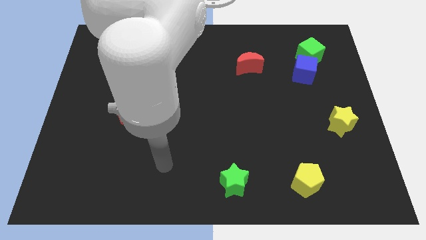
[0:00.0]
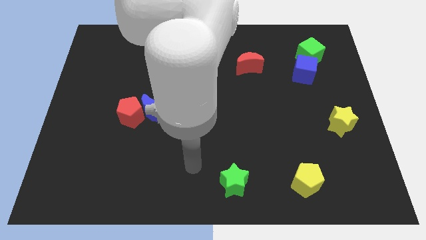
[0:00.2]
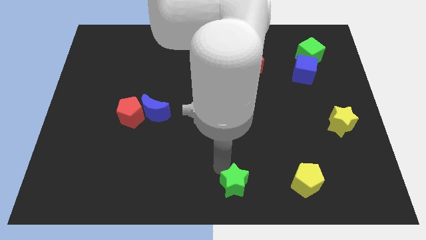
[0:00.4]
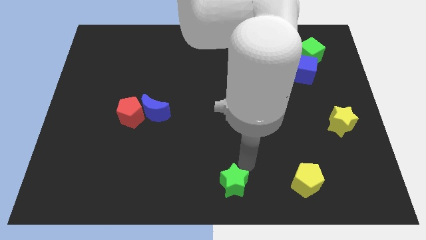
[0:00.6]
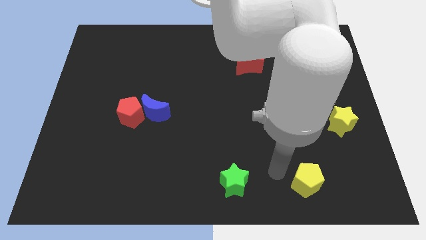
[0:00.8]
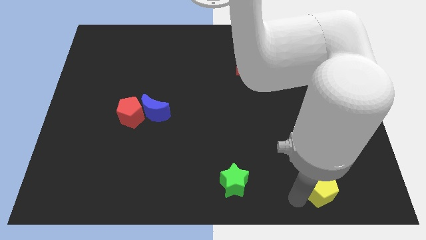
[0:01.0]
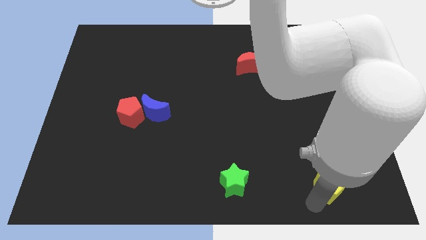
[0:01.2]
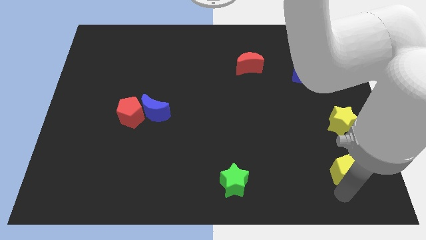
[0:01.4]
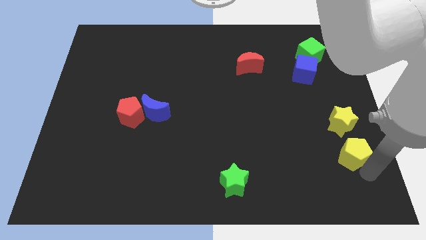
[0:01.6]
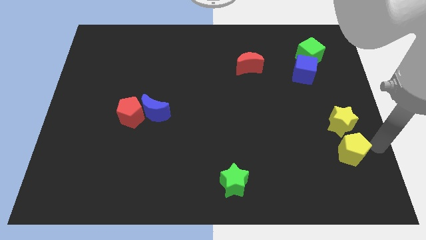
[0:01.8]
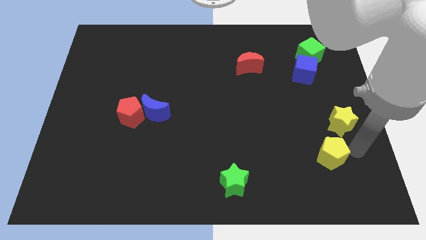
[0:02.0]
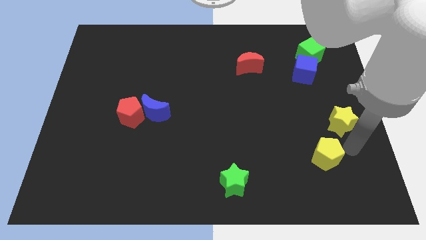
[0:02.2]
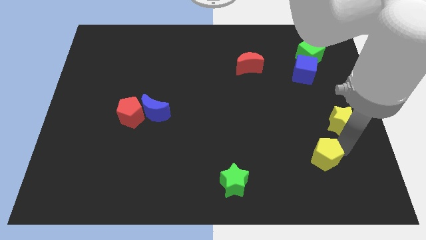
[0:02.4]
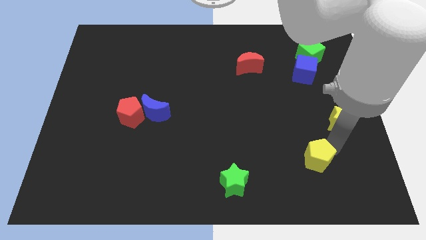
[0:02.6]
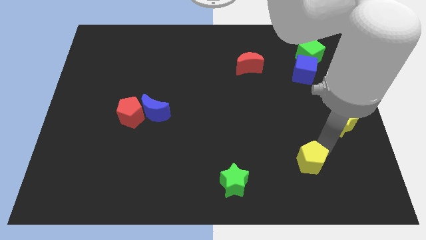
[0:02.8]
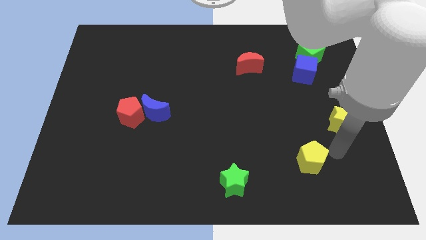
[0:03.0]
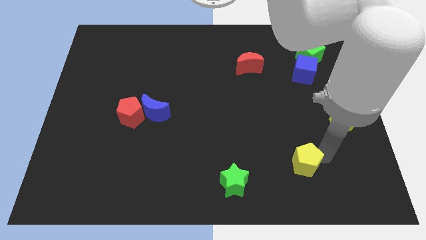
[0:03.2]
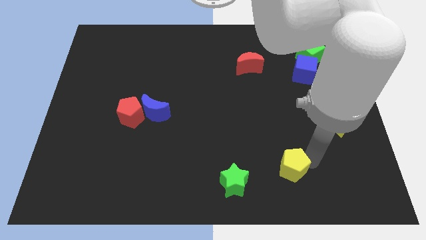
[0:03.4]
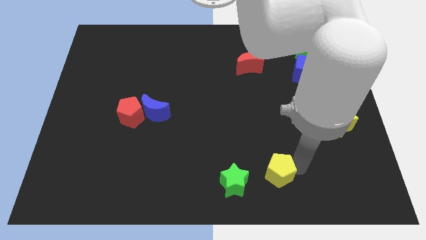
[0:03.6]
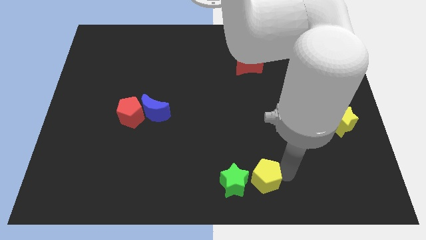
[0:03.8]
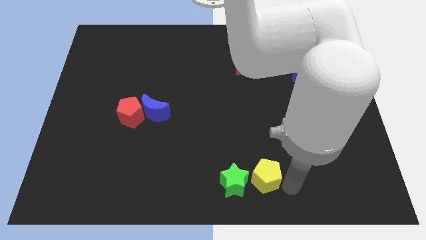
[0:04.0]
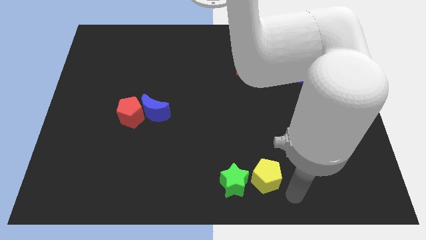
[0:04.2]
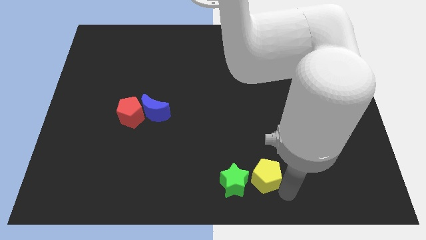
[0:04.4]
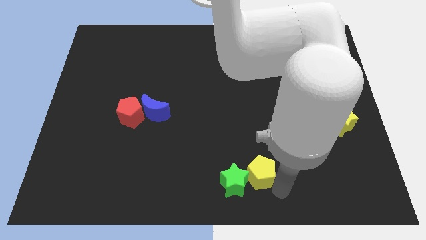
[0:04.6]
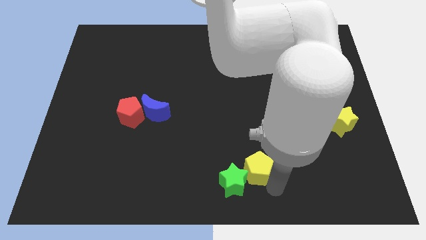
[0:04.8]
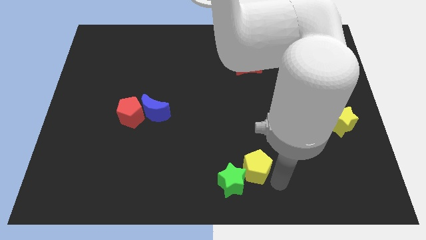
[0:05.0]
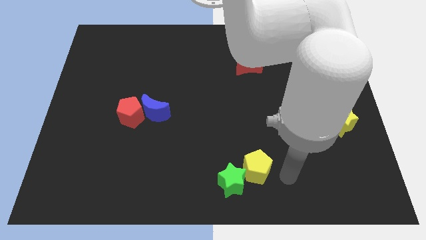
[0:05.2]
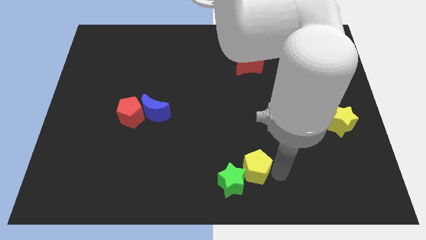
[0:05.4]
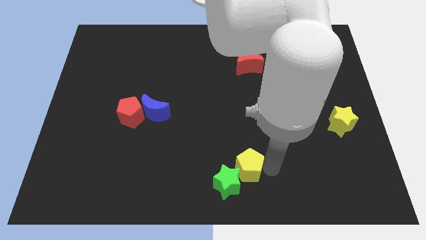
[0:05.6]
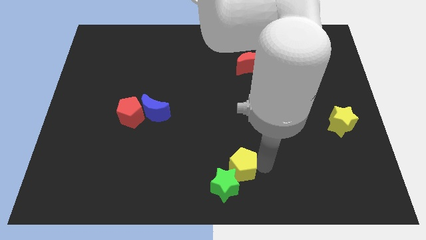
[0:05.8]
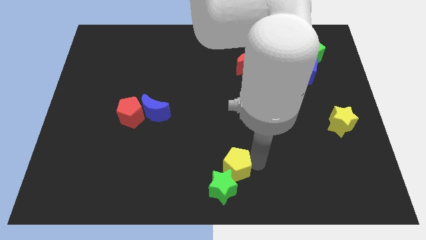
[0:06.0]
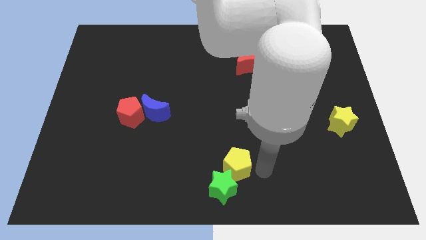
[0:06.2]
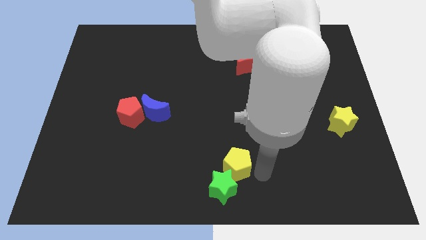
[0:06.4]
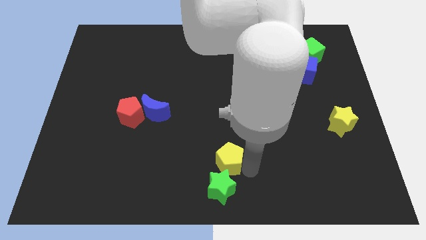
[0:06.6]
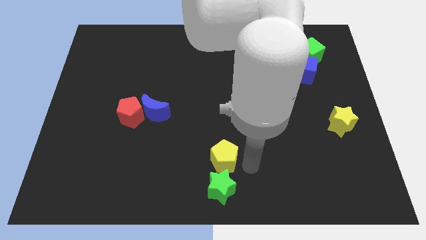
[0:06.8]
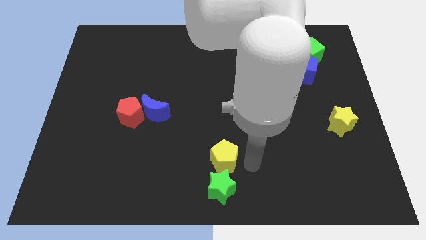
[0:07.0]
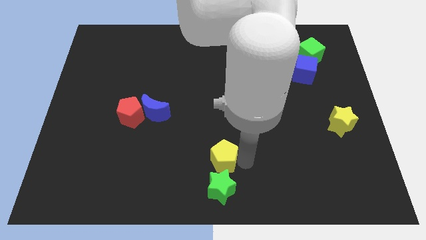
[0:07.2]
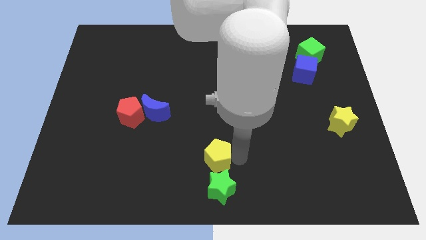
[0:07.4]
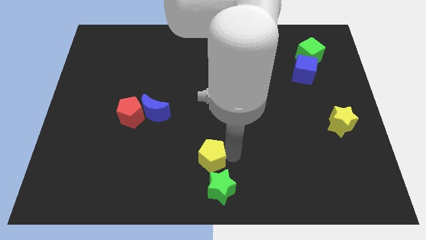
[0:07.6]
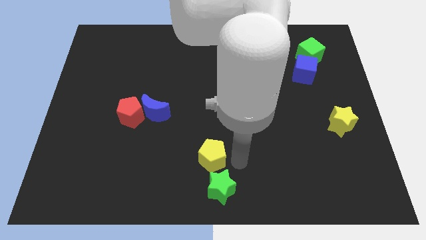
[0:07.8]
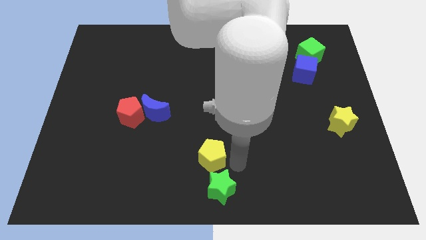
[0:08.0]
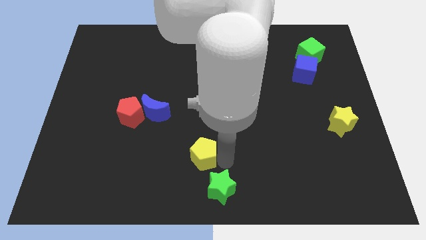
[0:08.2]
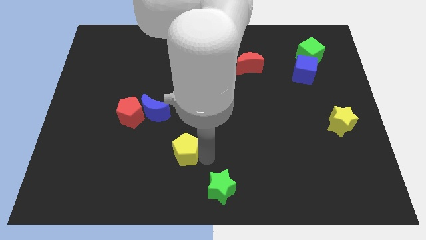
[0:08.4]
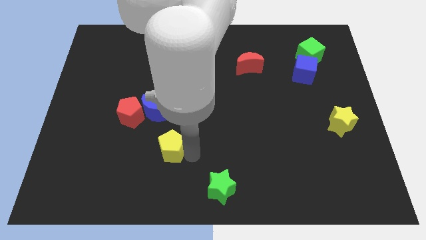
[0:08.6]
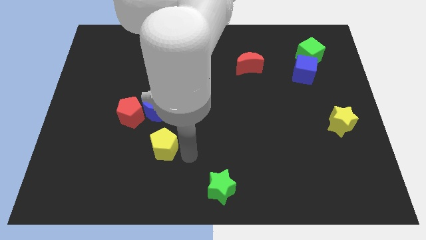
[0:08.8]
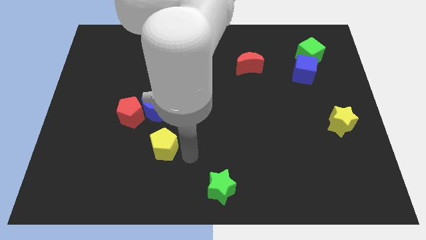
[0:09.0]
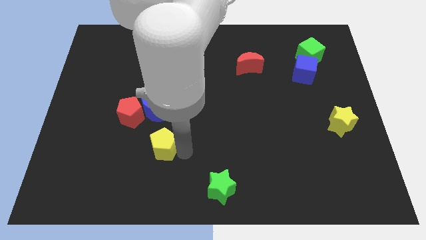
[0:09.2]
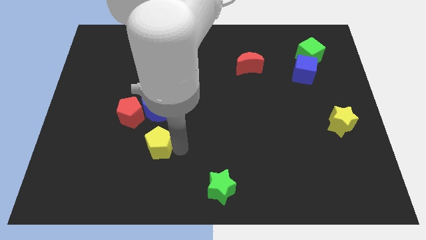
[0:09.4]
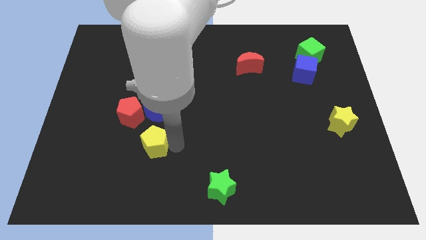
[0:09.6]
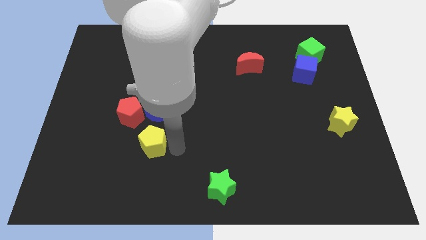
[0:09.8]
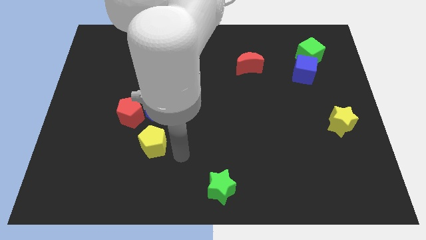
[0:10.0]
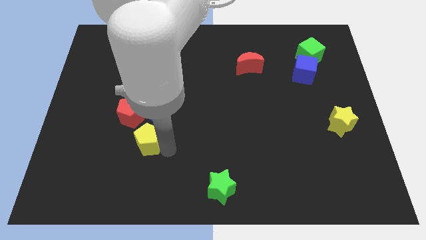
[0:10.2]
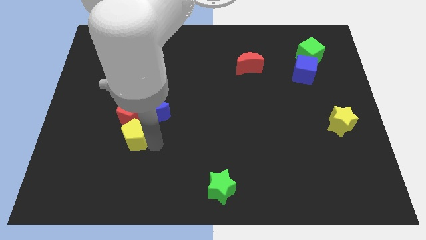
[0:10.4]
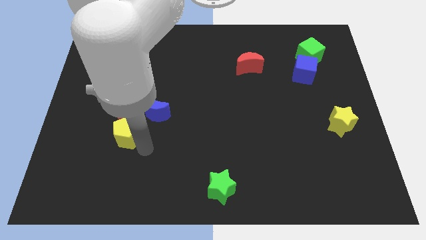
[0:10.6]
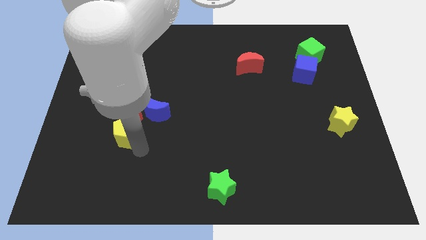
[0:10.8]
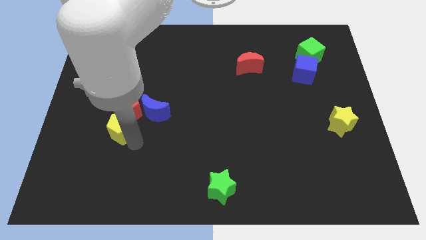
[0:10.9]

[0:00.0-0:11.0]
slide the yellow pentagon to the left side of the blue moon

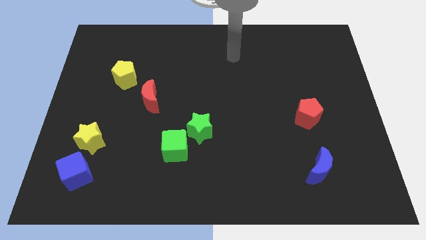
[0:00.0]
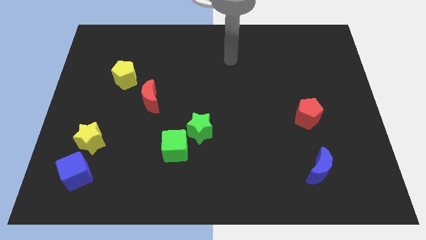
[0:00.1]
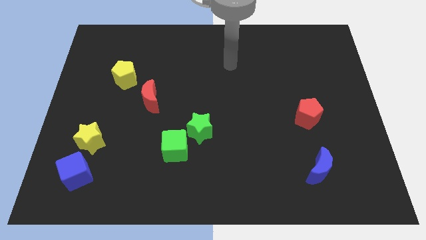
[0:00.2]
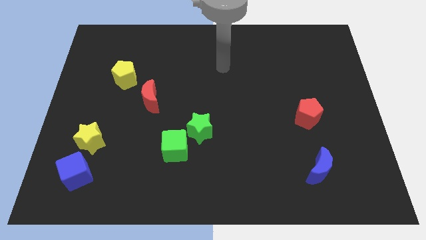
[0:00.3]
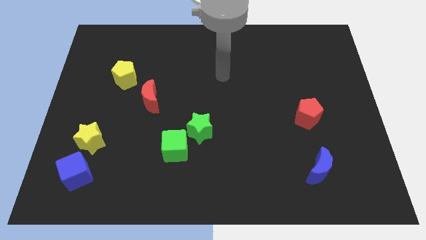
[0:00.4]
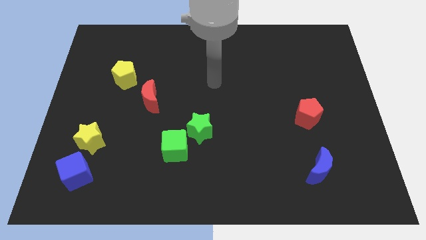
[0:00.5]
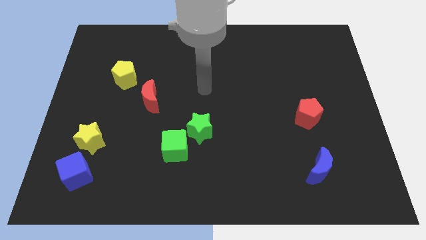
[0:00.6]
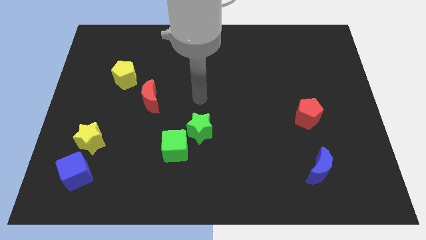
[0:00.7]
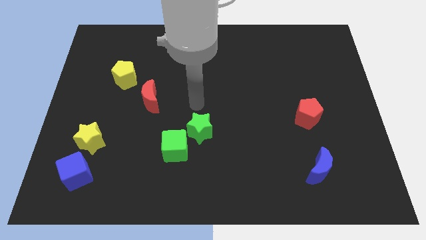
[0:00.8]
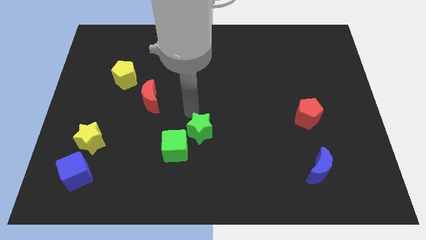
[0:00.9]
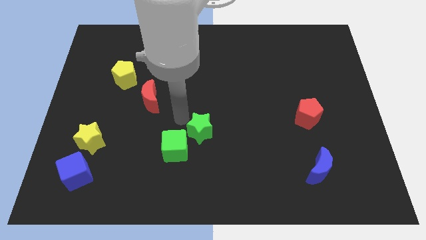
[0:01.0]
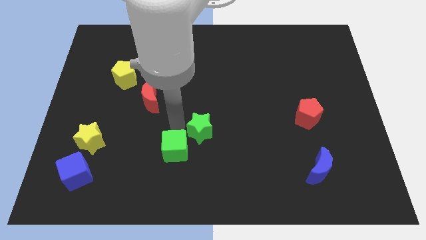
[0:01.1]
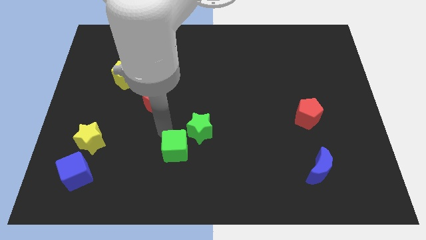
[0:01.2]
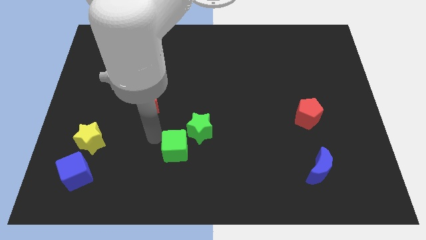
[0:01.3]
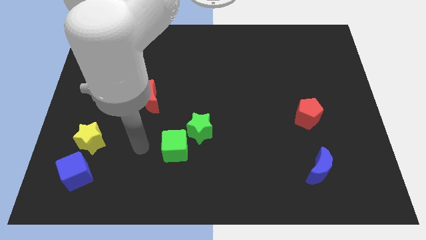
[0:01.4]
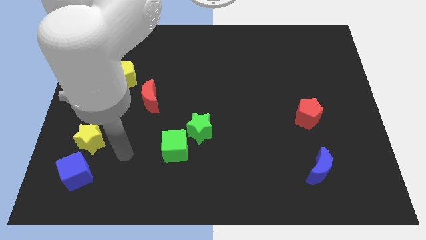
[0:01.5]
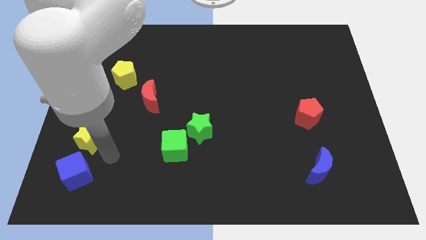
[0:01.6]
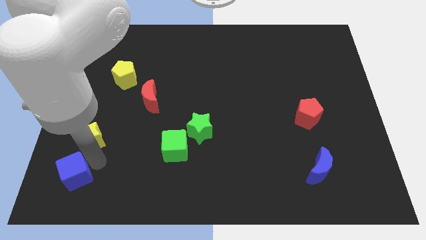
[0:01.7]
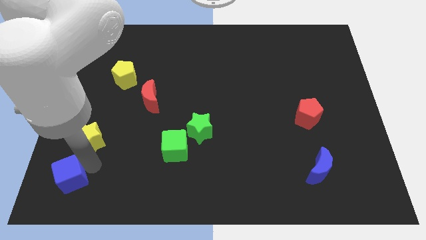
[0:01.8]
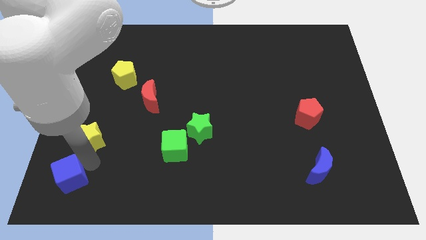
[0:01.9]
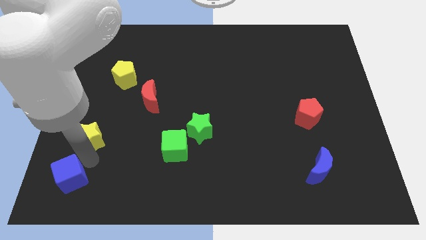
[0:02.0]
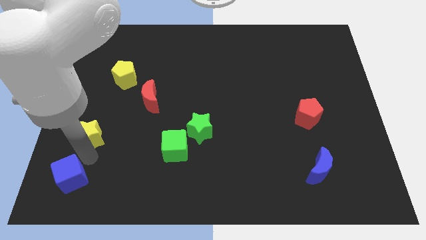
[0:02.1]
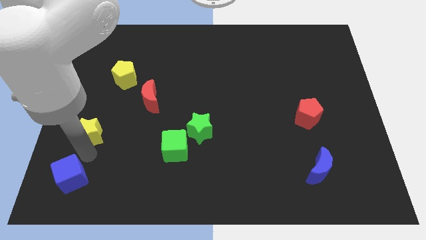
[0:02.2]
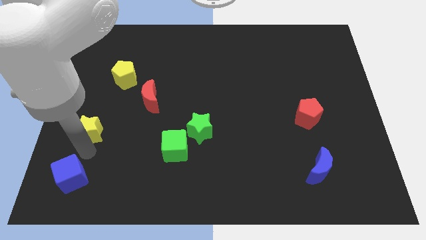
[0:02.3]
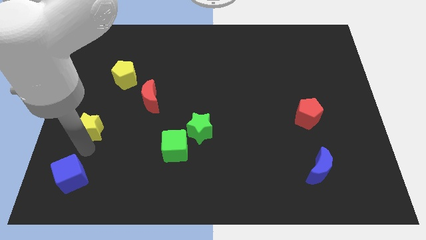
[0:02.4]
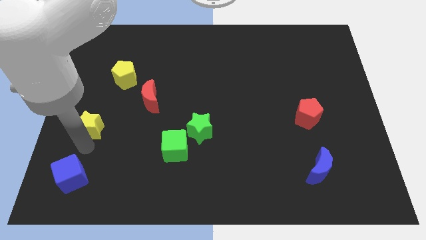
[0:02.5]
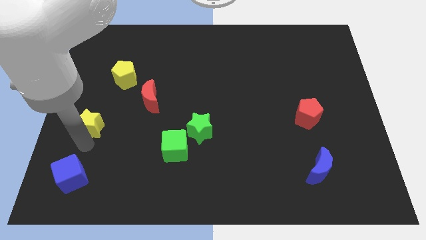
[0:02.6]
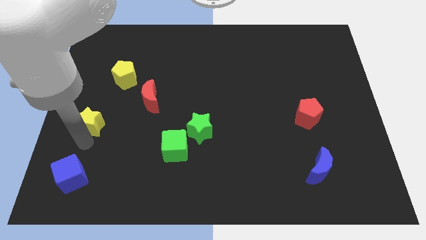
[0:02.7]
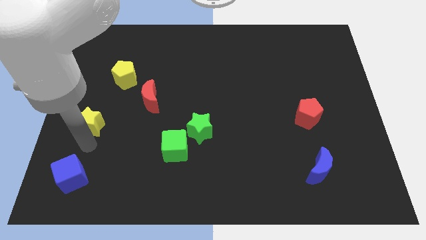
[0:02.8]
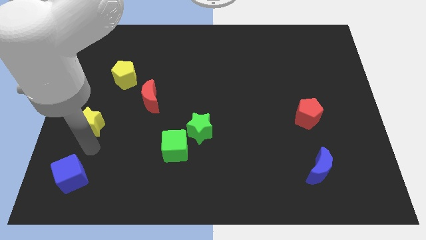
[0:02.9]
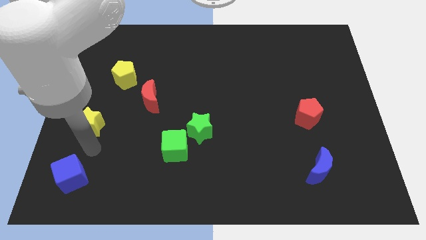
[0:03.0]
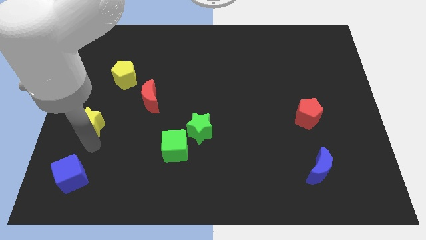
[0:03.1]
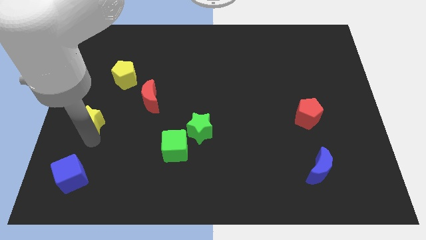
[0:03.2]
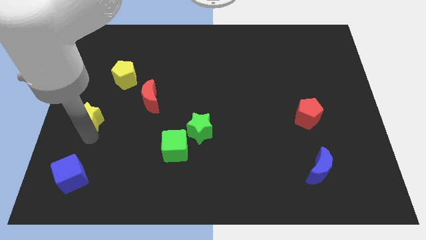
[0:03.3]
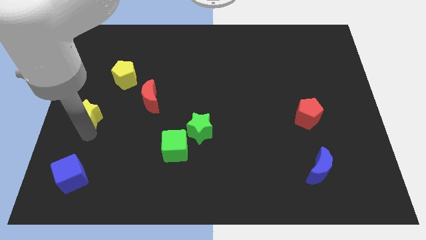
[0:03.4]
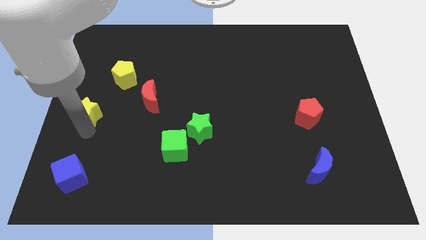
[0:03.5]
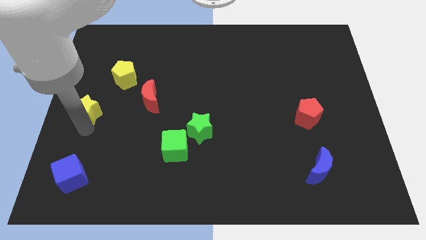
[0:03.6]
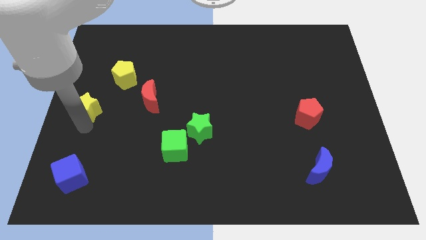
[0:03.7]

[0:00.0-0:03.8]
slide the yellow star diagonally down and to the left of the yellow pentagon
